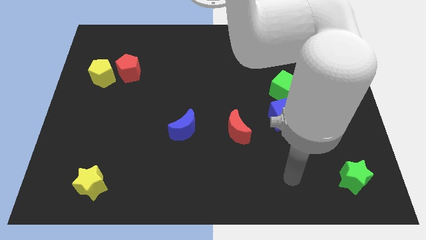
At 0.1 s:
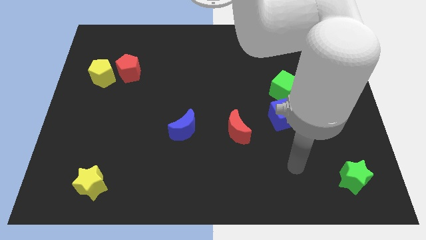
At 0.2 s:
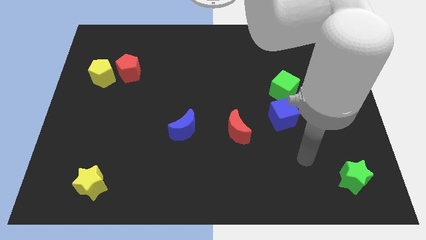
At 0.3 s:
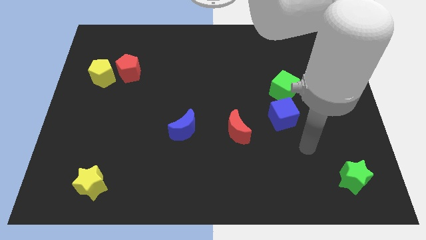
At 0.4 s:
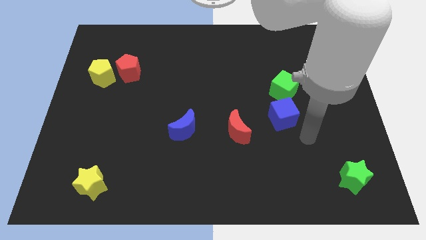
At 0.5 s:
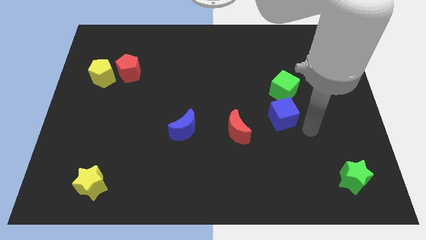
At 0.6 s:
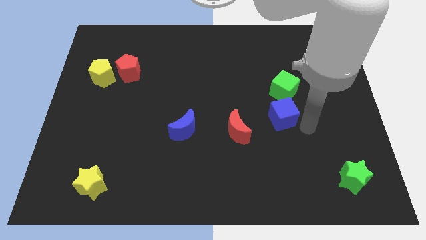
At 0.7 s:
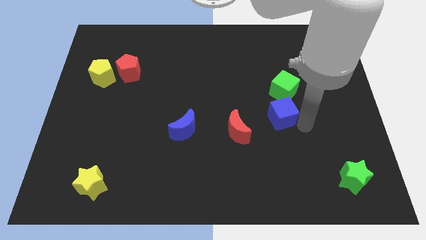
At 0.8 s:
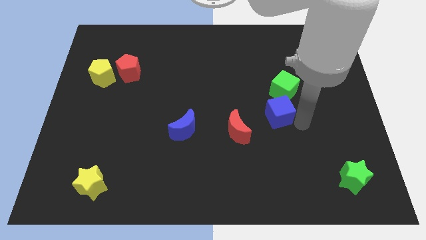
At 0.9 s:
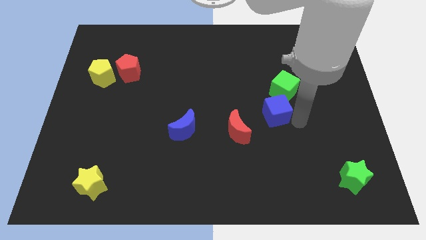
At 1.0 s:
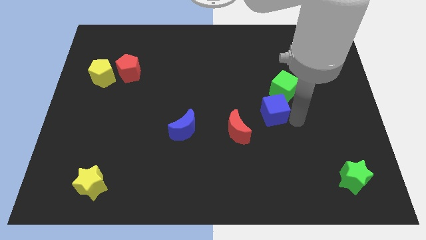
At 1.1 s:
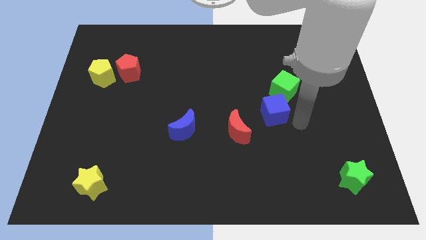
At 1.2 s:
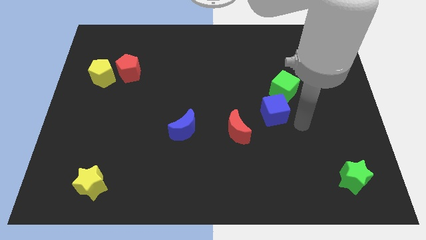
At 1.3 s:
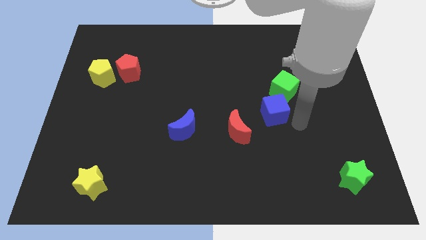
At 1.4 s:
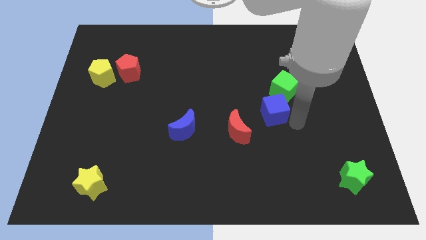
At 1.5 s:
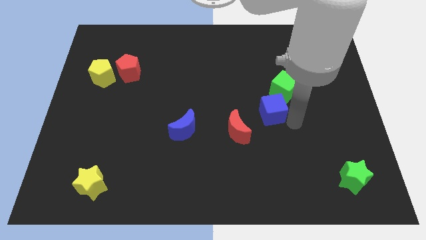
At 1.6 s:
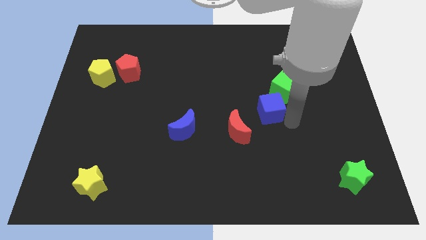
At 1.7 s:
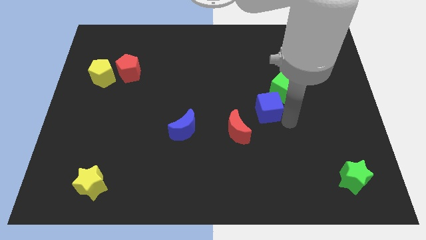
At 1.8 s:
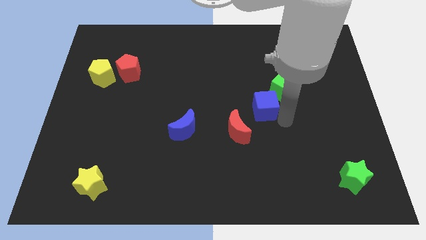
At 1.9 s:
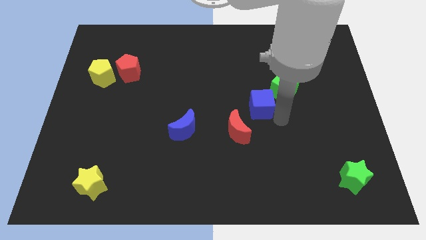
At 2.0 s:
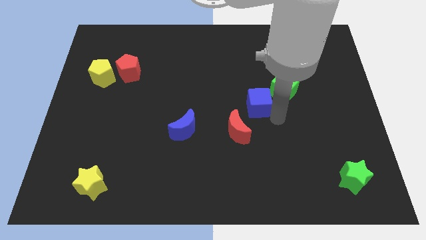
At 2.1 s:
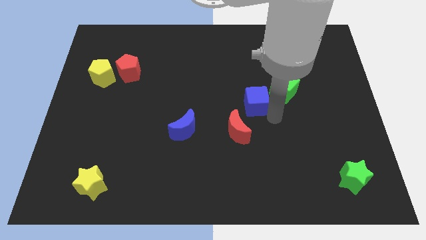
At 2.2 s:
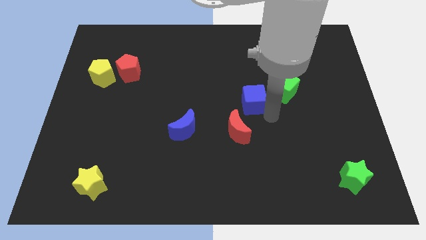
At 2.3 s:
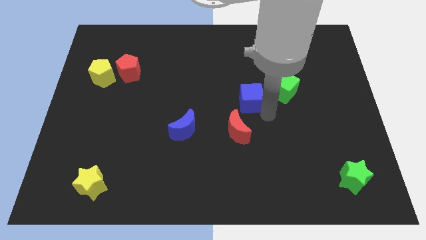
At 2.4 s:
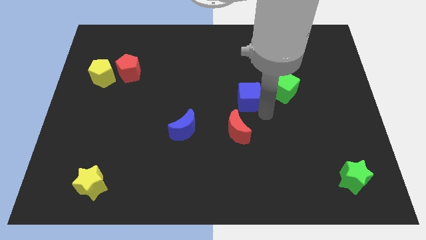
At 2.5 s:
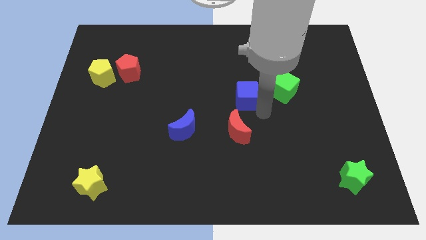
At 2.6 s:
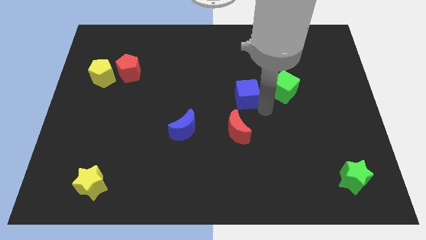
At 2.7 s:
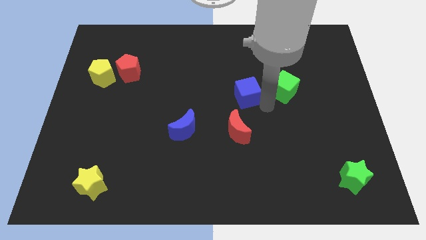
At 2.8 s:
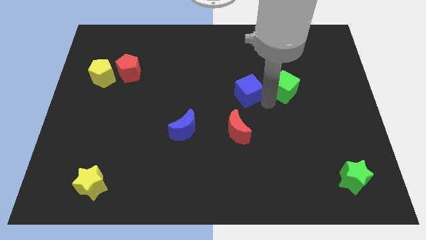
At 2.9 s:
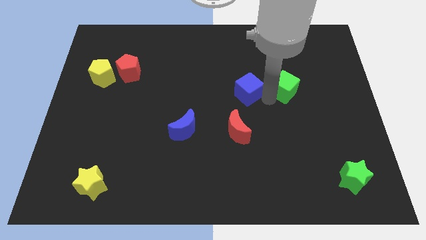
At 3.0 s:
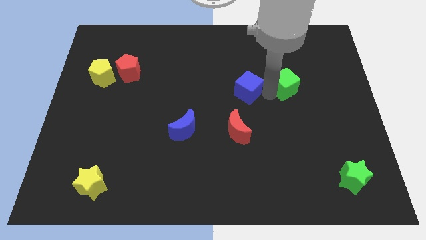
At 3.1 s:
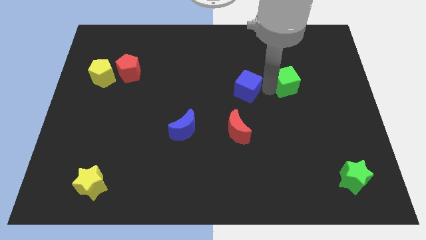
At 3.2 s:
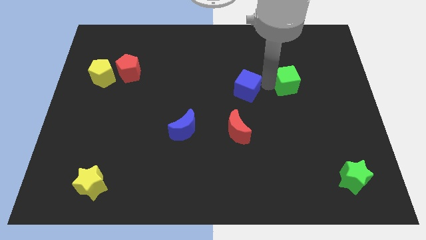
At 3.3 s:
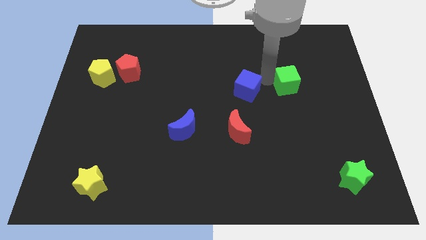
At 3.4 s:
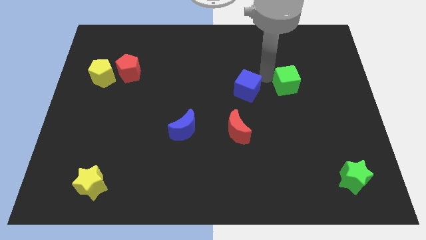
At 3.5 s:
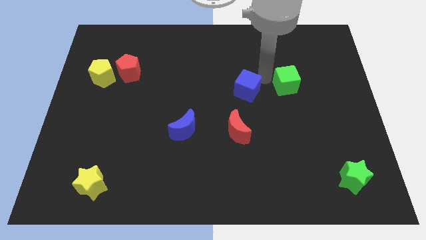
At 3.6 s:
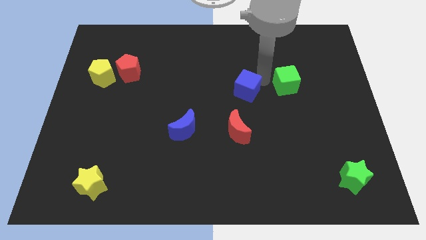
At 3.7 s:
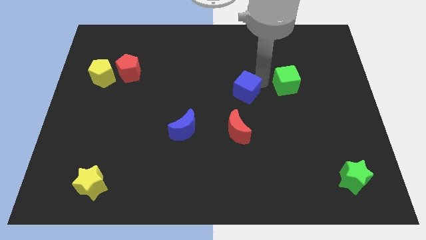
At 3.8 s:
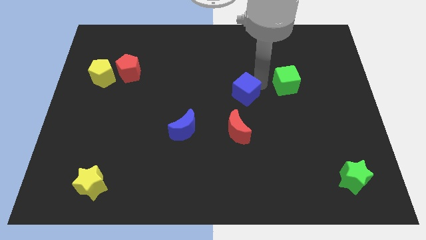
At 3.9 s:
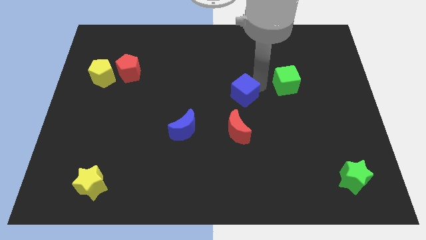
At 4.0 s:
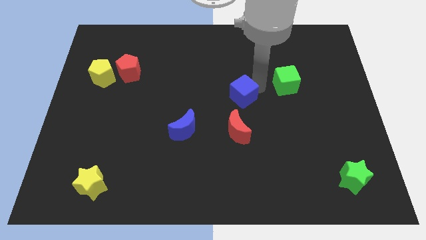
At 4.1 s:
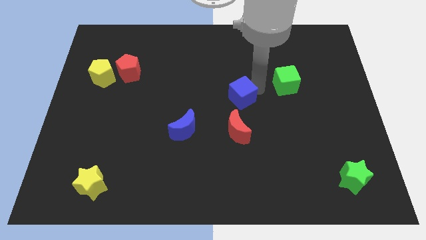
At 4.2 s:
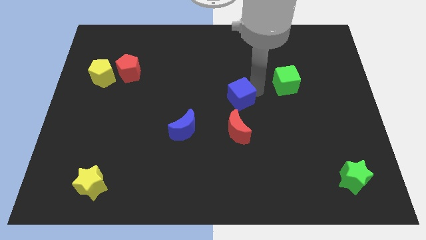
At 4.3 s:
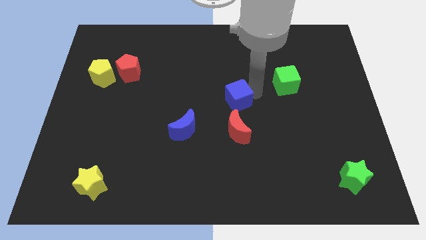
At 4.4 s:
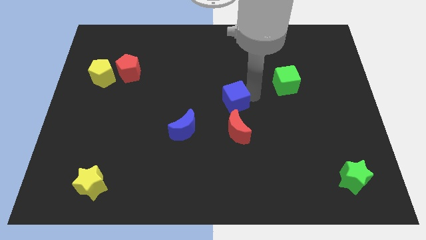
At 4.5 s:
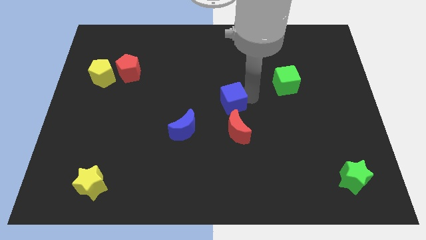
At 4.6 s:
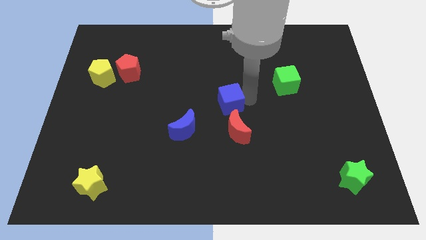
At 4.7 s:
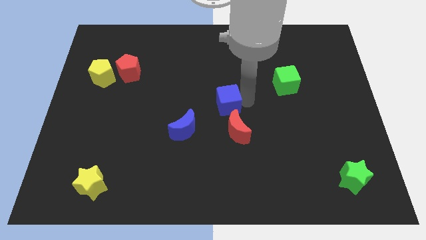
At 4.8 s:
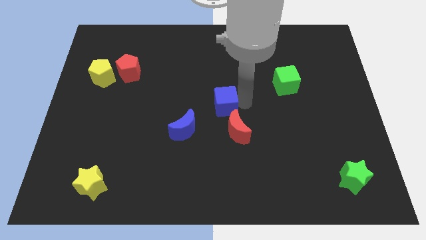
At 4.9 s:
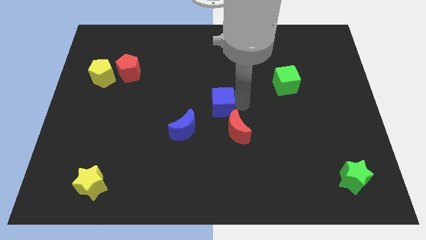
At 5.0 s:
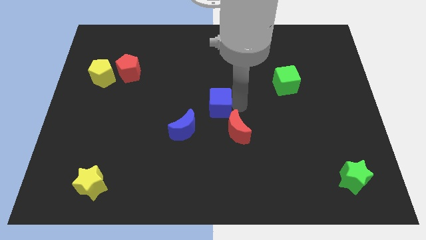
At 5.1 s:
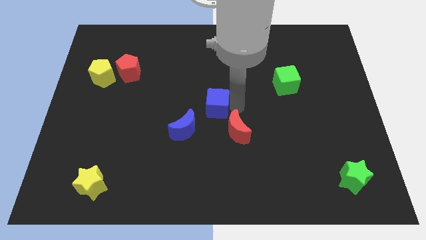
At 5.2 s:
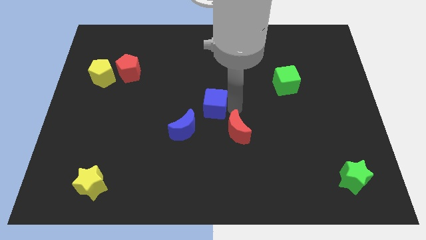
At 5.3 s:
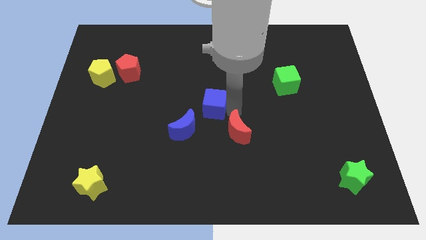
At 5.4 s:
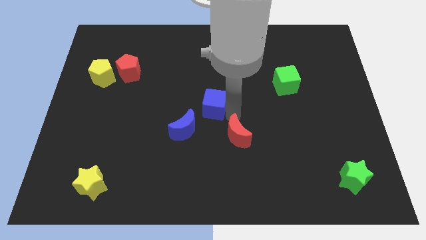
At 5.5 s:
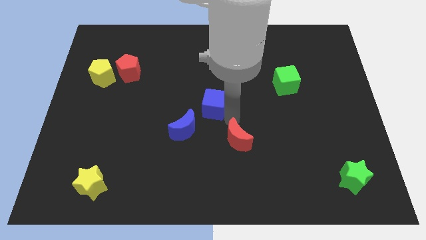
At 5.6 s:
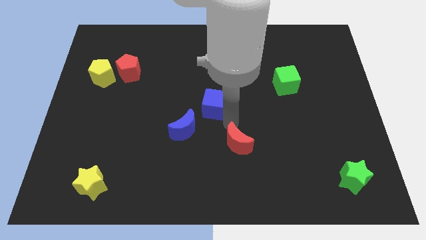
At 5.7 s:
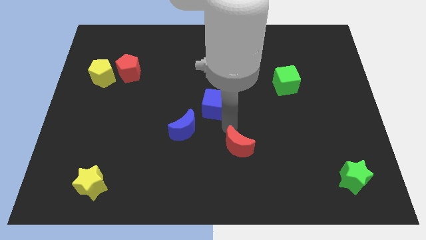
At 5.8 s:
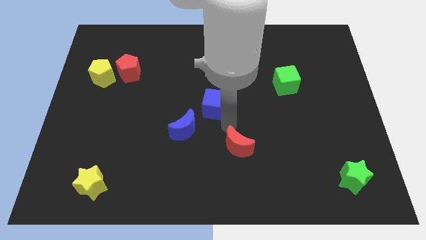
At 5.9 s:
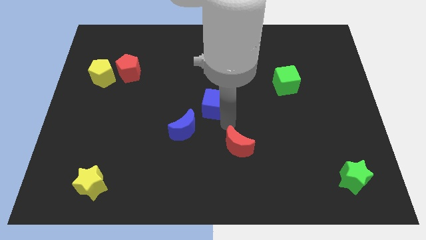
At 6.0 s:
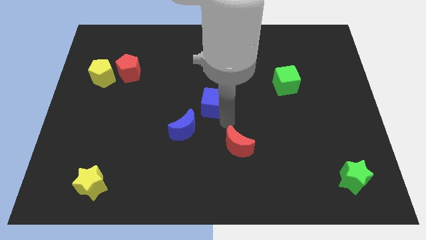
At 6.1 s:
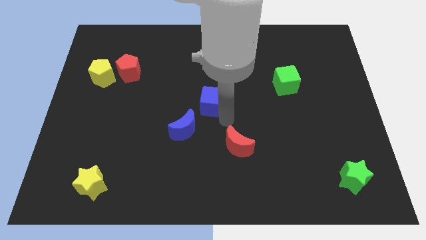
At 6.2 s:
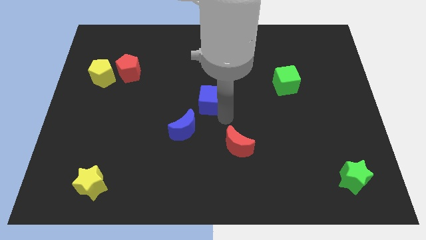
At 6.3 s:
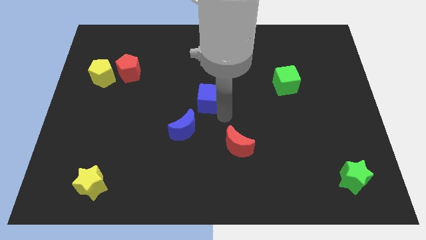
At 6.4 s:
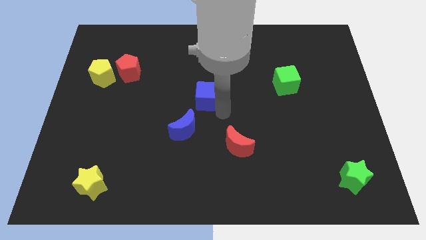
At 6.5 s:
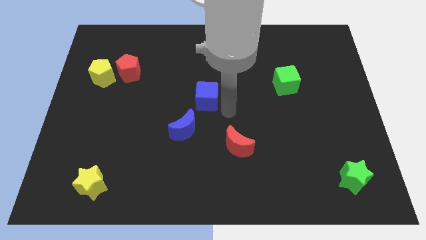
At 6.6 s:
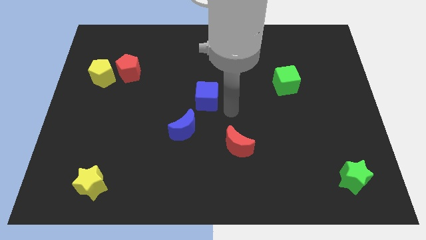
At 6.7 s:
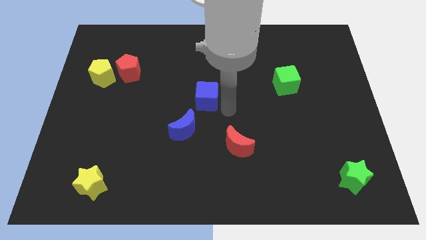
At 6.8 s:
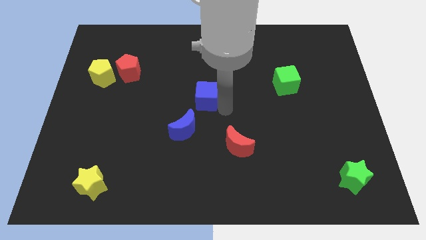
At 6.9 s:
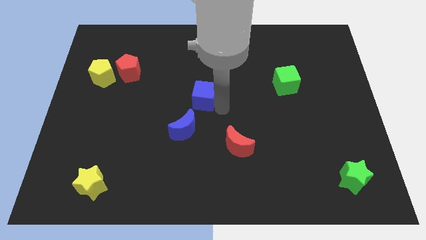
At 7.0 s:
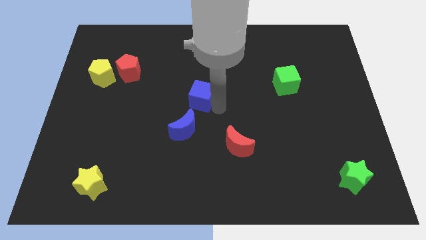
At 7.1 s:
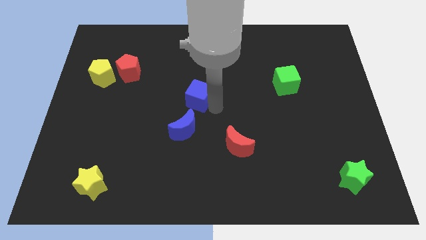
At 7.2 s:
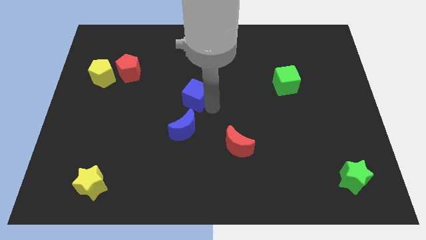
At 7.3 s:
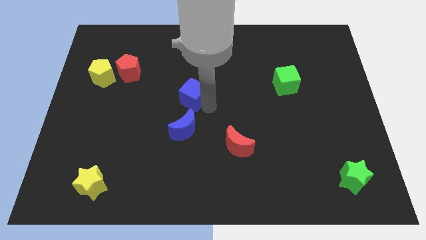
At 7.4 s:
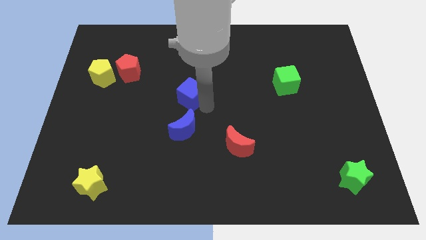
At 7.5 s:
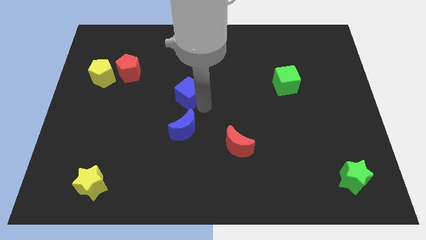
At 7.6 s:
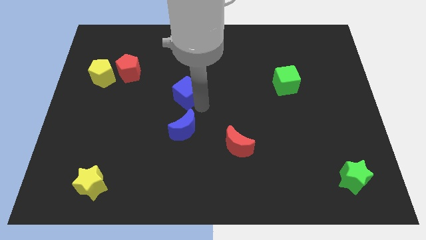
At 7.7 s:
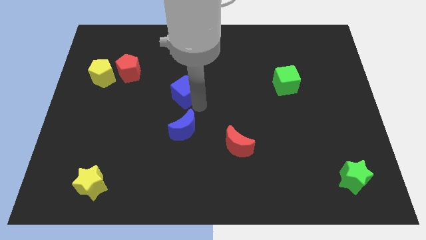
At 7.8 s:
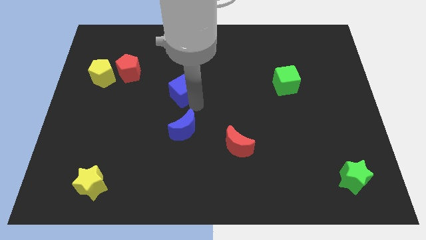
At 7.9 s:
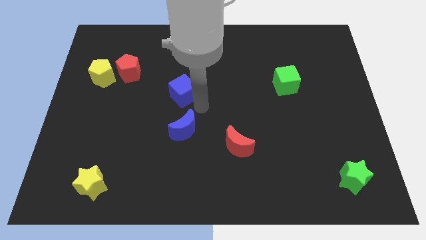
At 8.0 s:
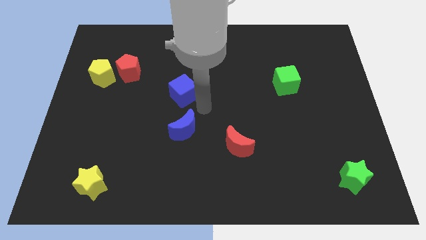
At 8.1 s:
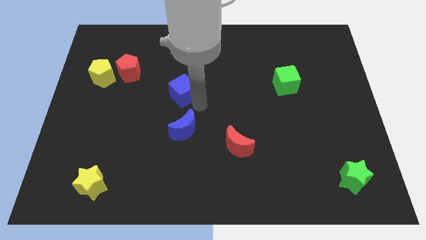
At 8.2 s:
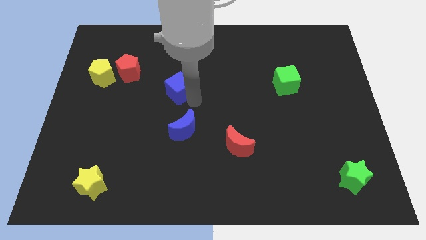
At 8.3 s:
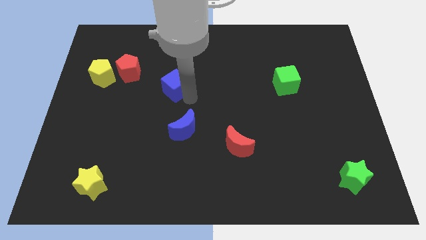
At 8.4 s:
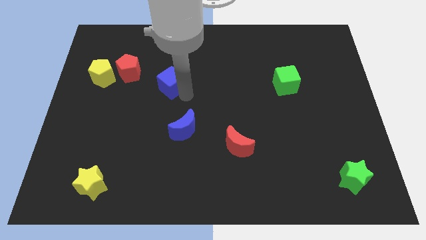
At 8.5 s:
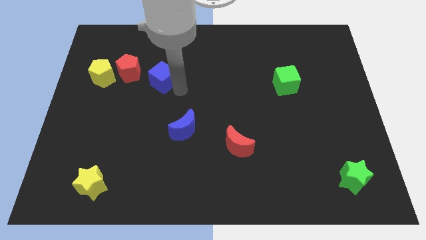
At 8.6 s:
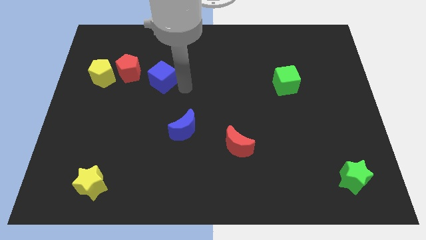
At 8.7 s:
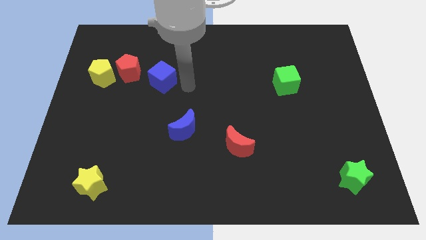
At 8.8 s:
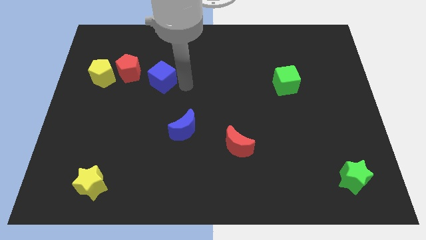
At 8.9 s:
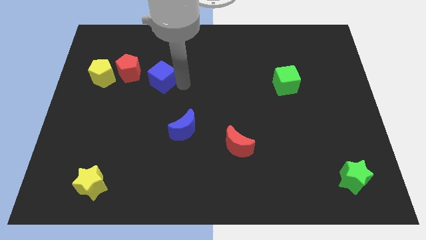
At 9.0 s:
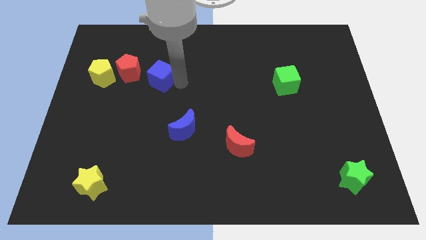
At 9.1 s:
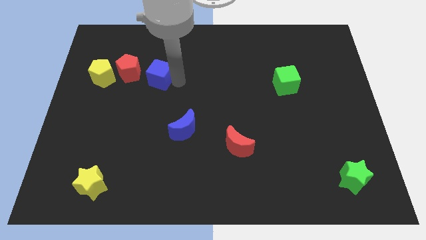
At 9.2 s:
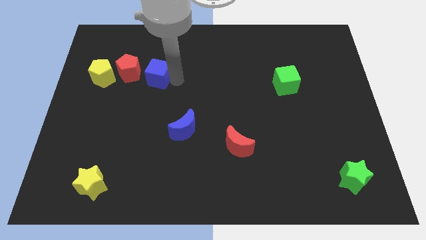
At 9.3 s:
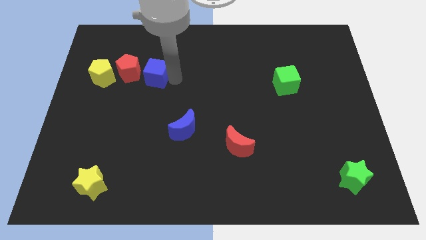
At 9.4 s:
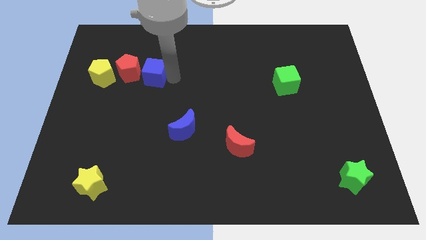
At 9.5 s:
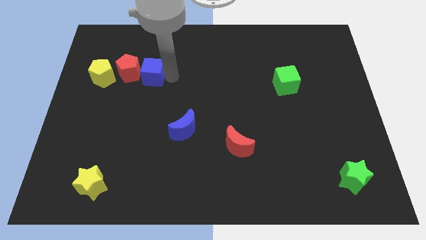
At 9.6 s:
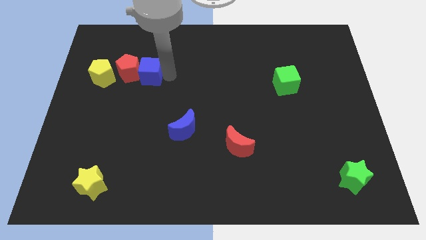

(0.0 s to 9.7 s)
put the blue cube to the red pentagon
